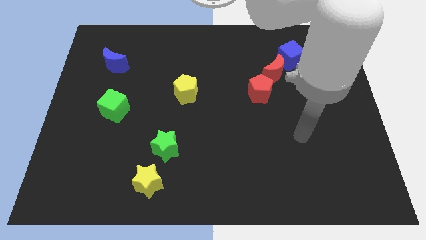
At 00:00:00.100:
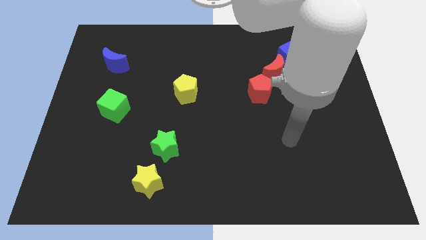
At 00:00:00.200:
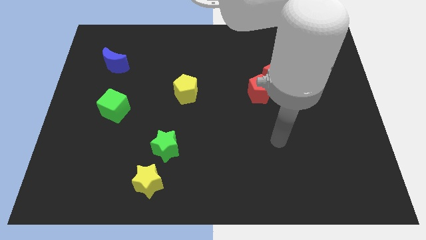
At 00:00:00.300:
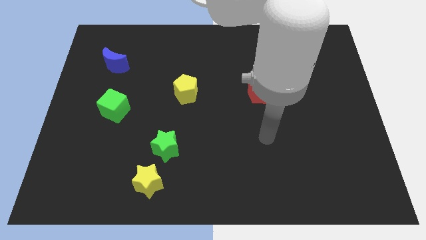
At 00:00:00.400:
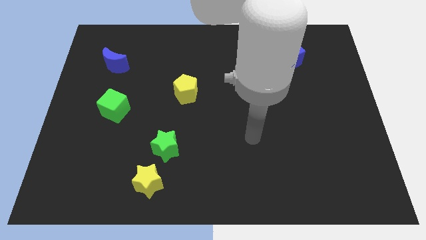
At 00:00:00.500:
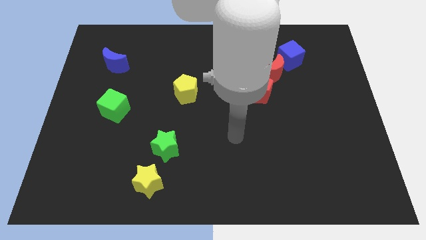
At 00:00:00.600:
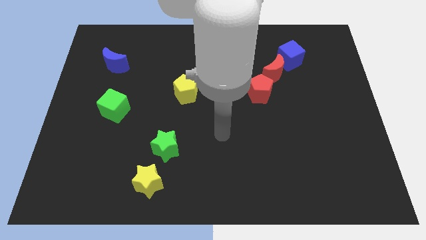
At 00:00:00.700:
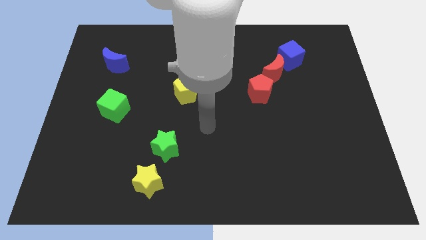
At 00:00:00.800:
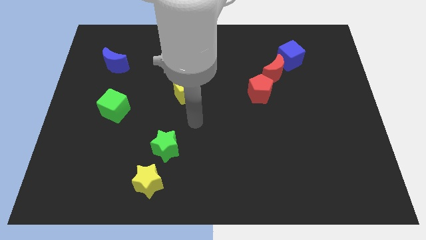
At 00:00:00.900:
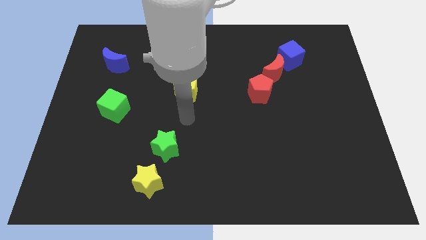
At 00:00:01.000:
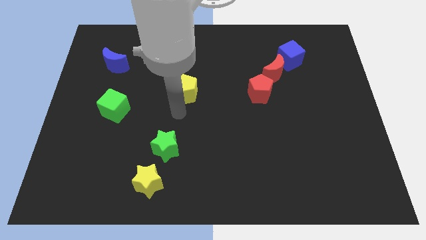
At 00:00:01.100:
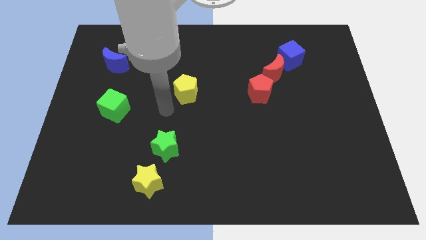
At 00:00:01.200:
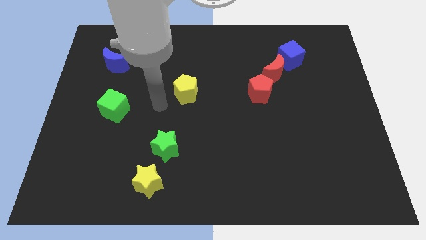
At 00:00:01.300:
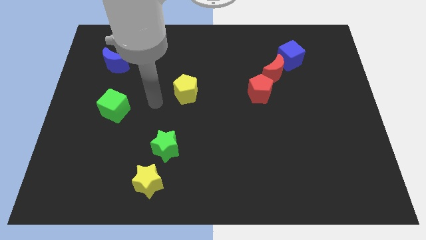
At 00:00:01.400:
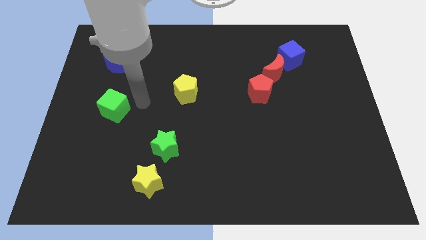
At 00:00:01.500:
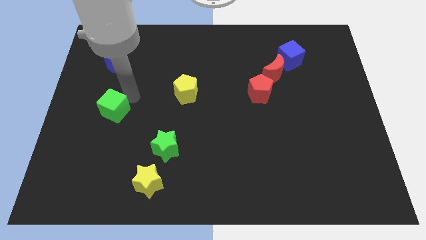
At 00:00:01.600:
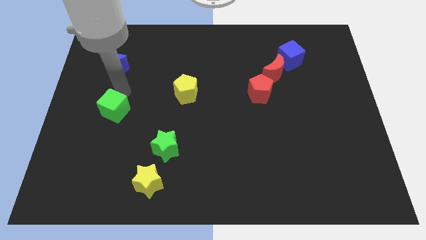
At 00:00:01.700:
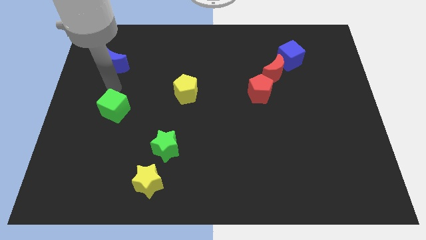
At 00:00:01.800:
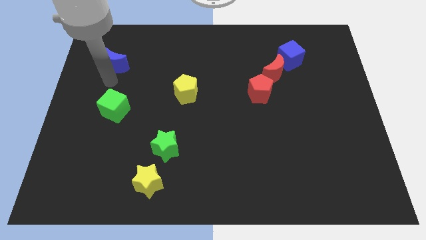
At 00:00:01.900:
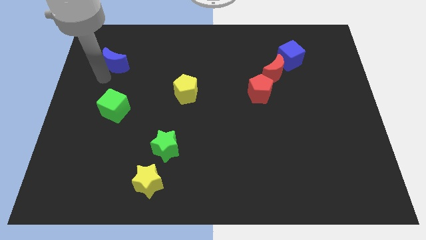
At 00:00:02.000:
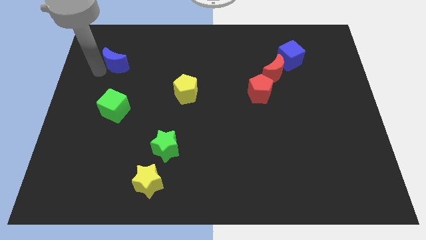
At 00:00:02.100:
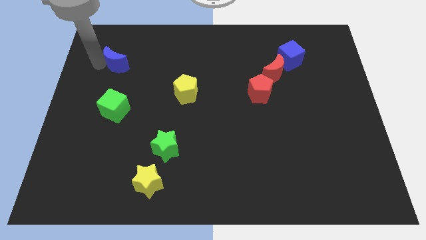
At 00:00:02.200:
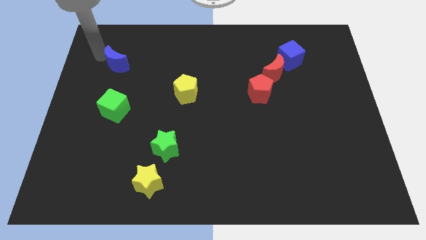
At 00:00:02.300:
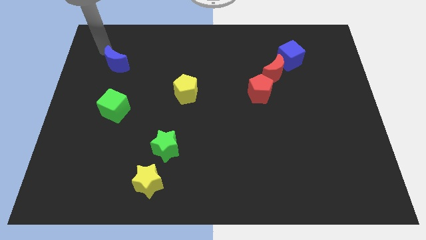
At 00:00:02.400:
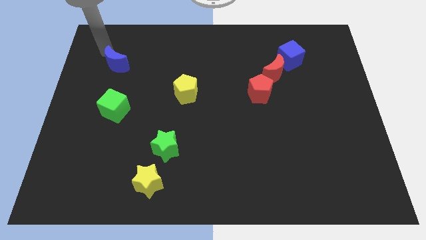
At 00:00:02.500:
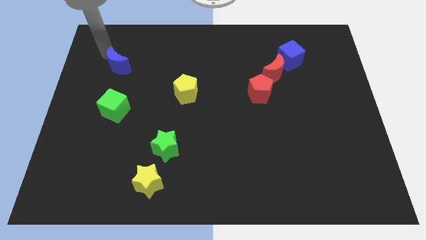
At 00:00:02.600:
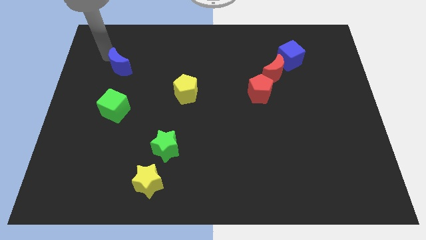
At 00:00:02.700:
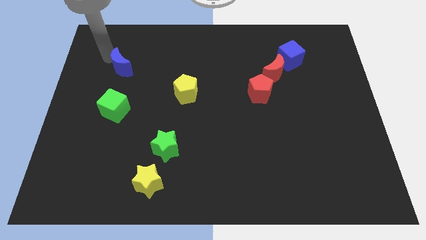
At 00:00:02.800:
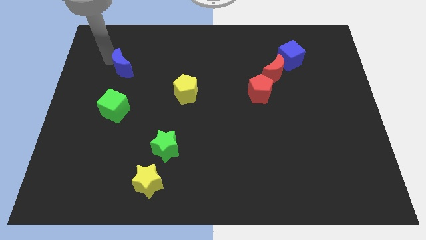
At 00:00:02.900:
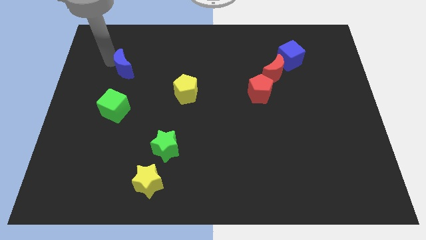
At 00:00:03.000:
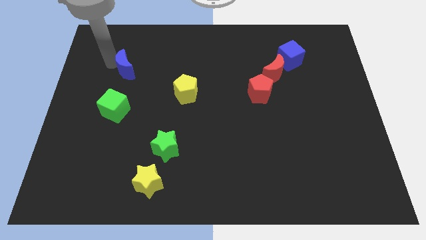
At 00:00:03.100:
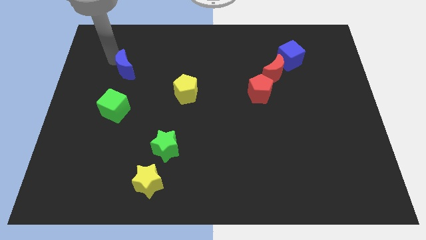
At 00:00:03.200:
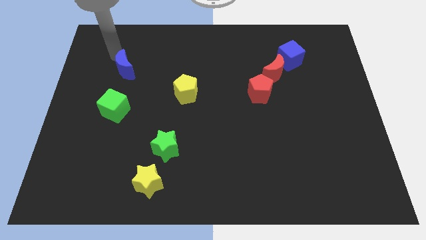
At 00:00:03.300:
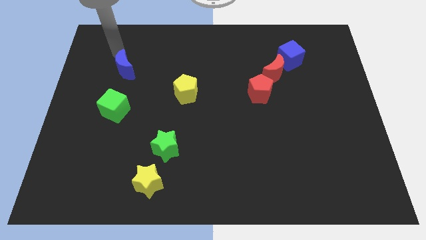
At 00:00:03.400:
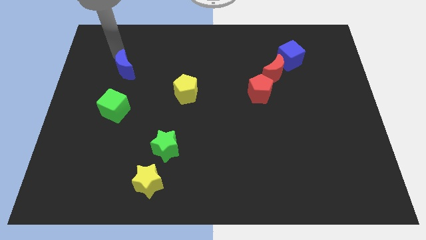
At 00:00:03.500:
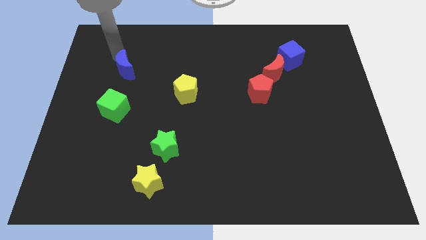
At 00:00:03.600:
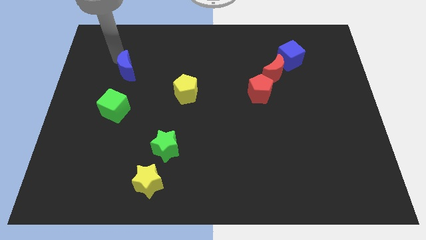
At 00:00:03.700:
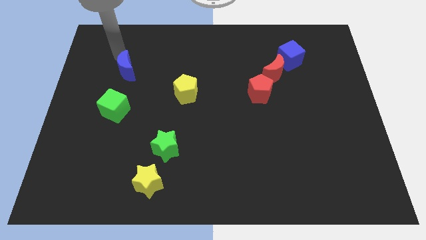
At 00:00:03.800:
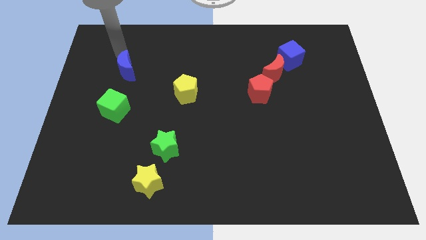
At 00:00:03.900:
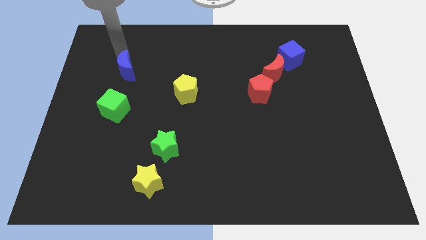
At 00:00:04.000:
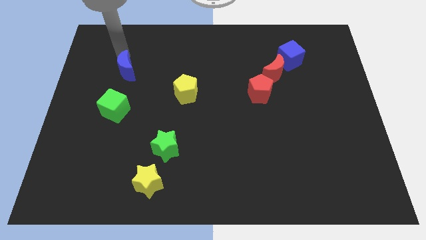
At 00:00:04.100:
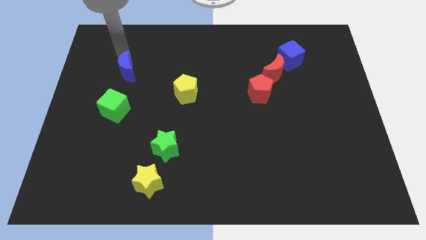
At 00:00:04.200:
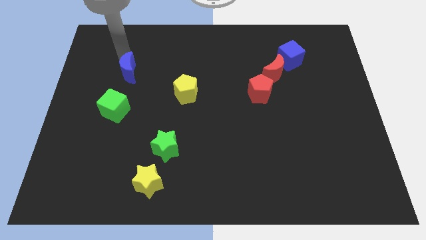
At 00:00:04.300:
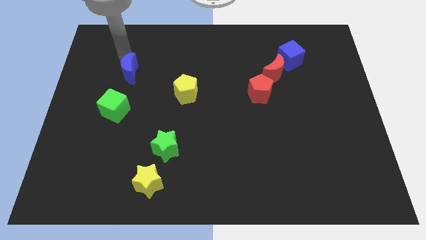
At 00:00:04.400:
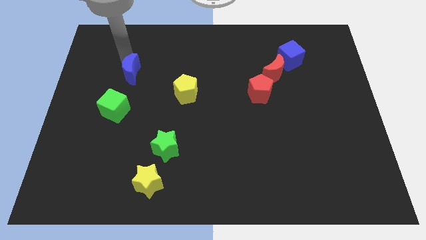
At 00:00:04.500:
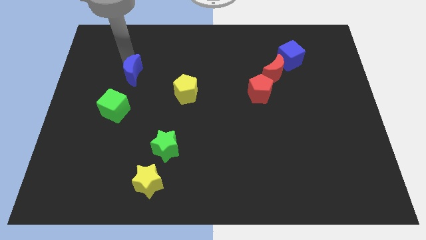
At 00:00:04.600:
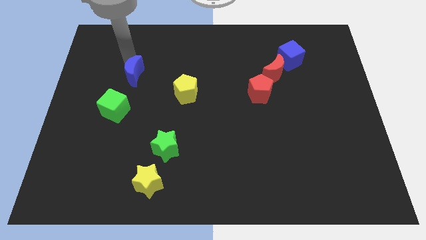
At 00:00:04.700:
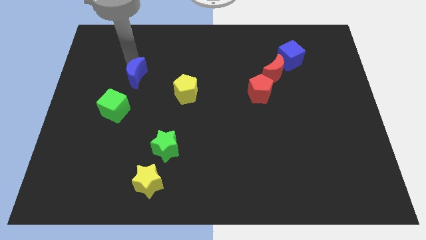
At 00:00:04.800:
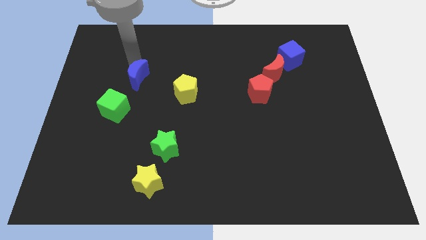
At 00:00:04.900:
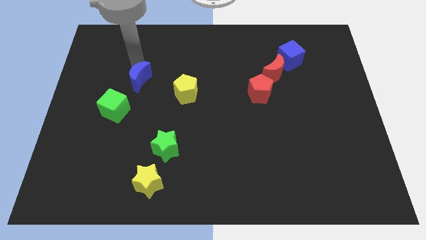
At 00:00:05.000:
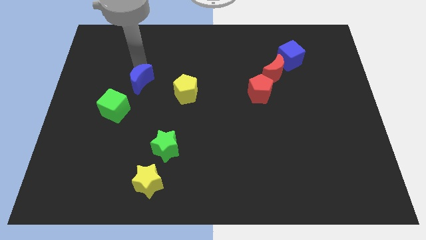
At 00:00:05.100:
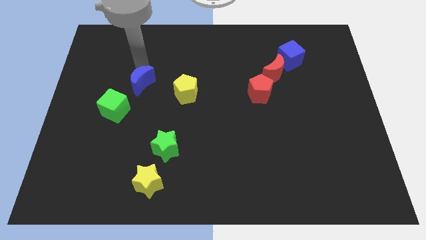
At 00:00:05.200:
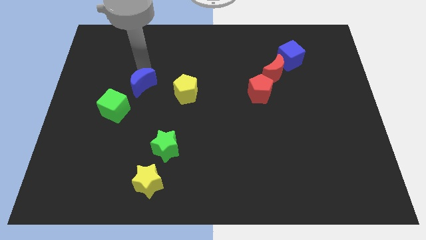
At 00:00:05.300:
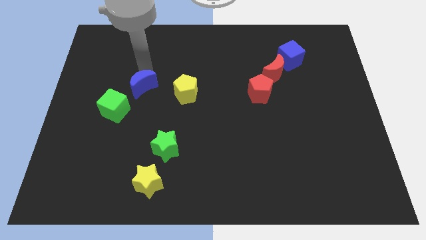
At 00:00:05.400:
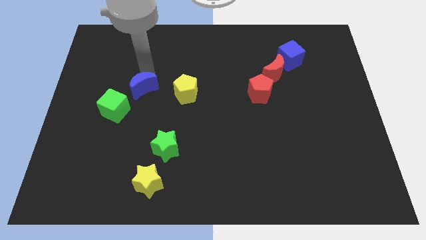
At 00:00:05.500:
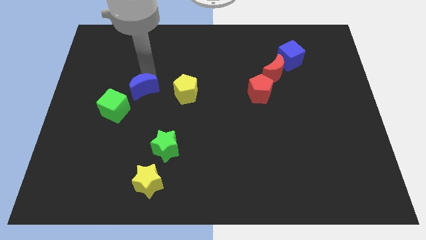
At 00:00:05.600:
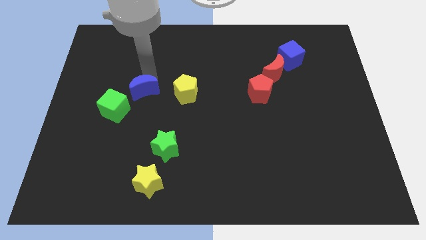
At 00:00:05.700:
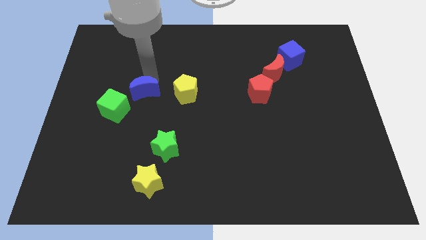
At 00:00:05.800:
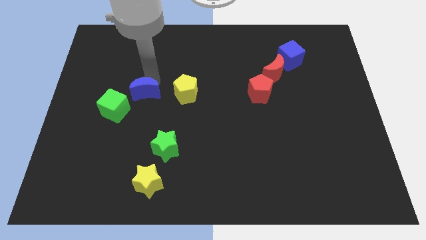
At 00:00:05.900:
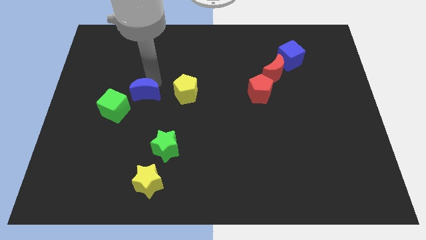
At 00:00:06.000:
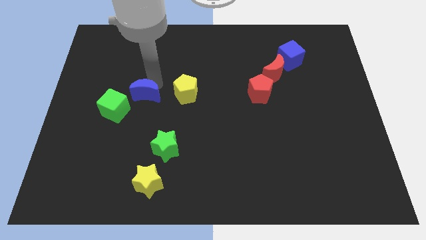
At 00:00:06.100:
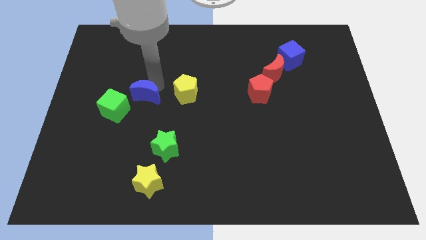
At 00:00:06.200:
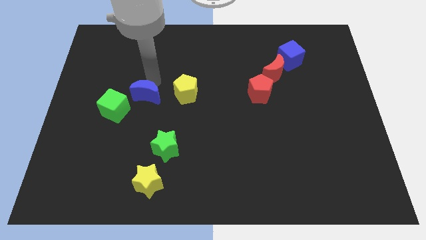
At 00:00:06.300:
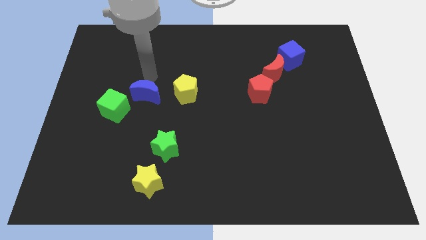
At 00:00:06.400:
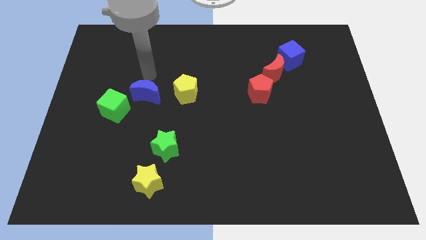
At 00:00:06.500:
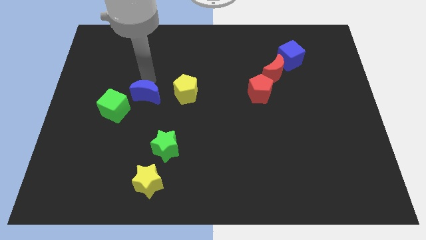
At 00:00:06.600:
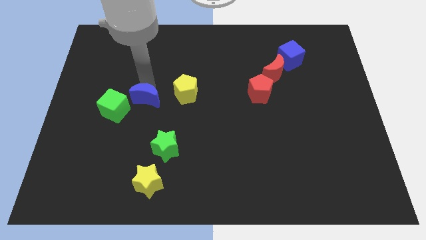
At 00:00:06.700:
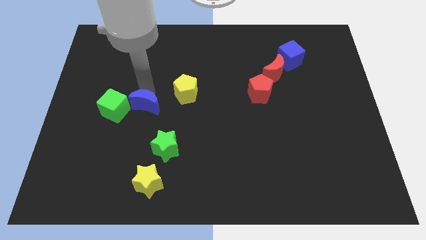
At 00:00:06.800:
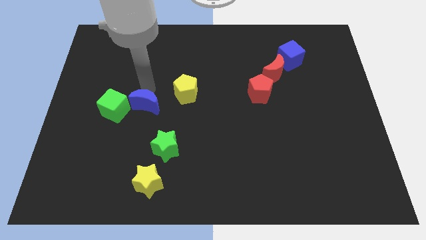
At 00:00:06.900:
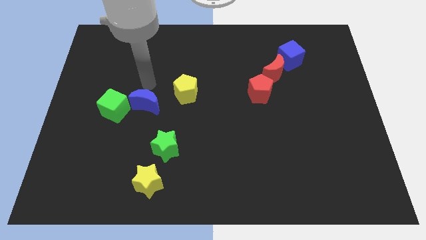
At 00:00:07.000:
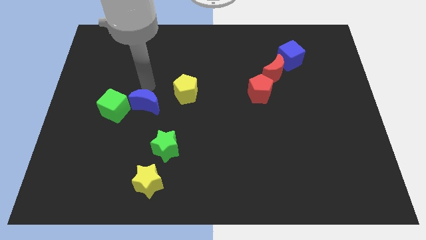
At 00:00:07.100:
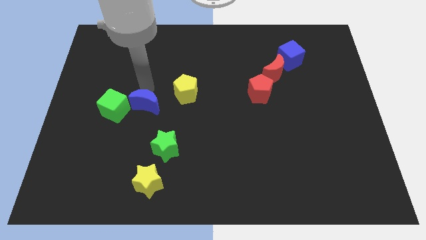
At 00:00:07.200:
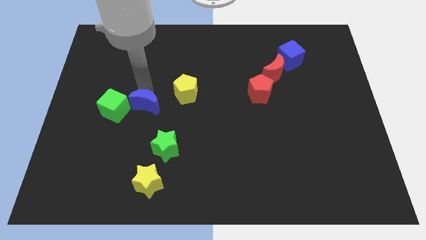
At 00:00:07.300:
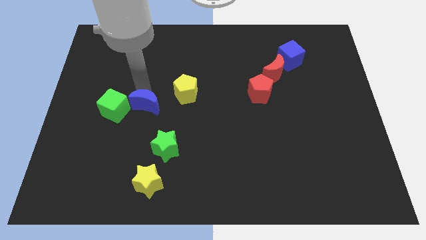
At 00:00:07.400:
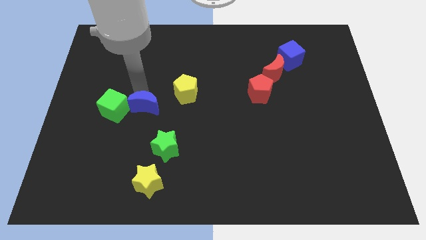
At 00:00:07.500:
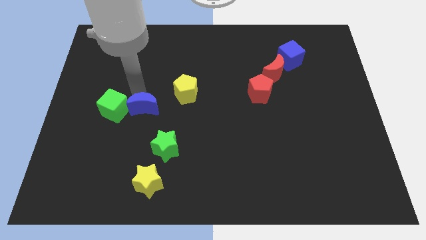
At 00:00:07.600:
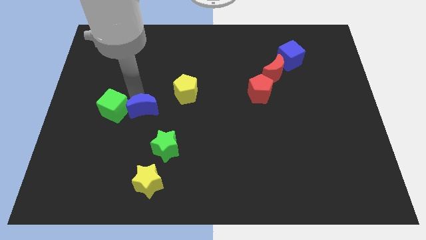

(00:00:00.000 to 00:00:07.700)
push the blue moon diagonally up and to the left of the green star
